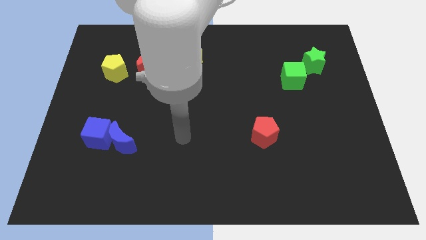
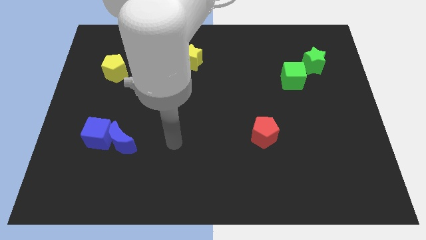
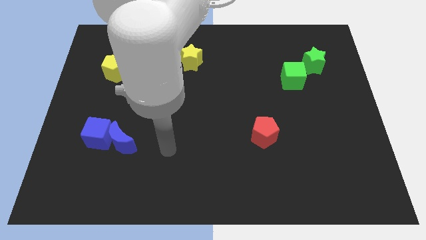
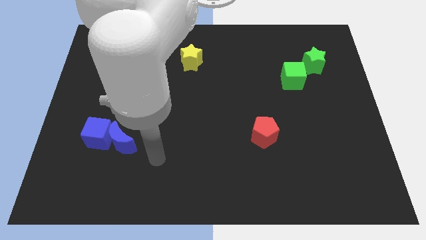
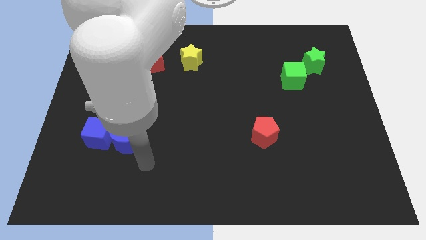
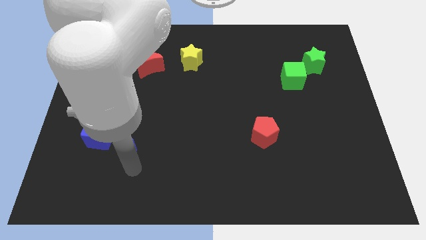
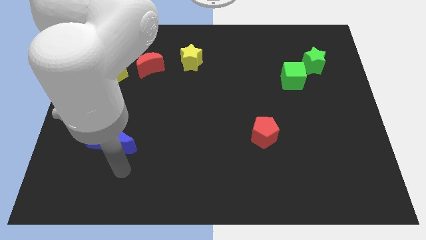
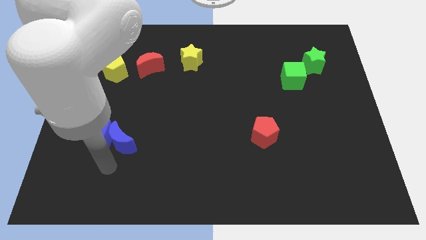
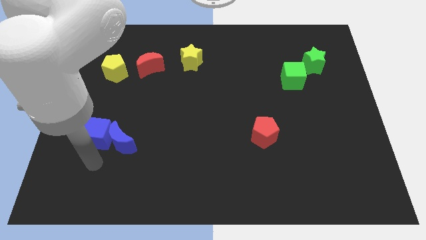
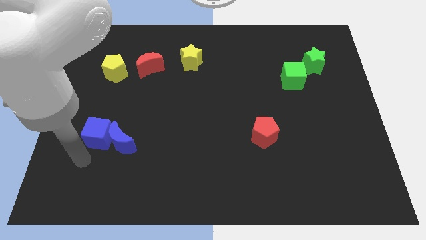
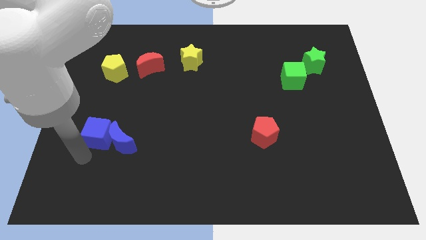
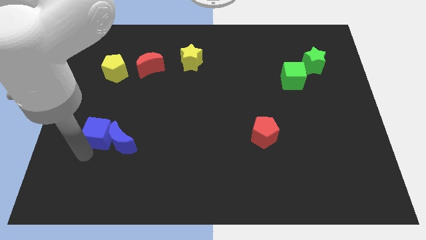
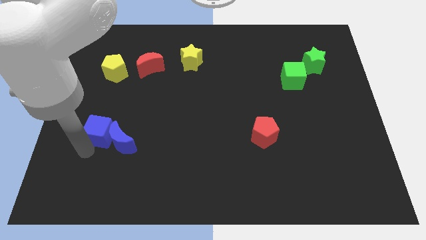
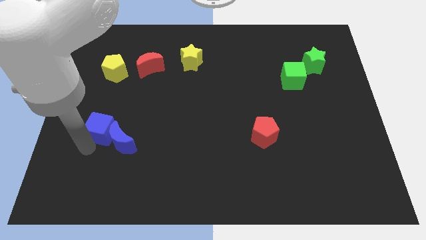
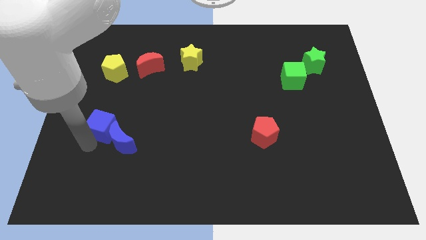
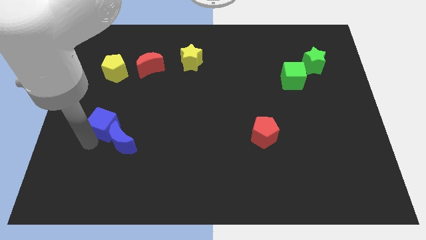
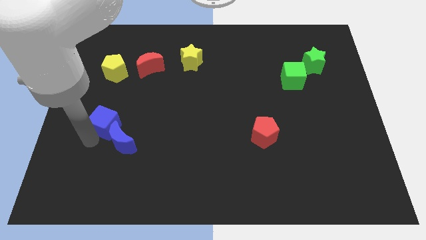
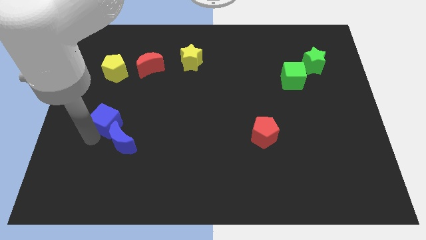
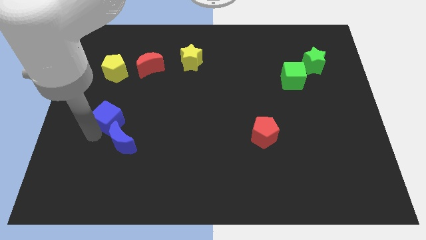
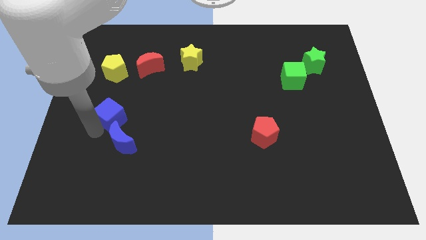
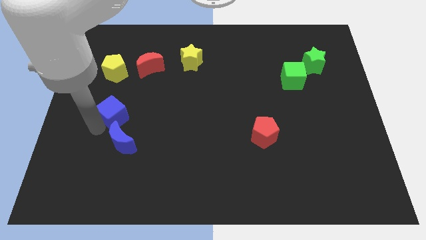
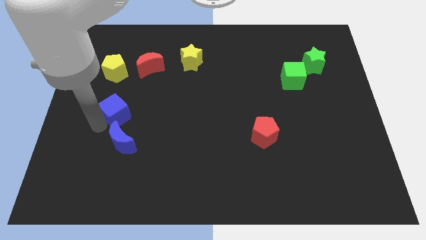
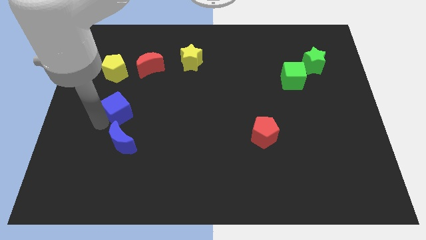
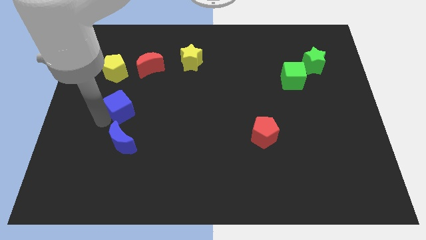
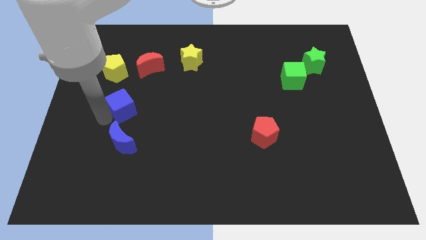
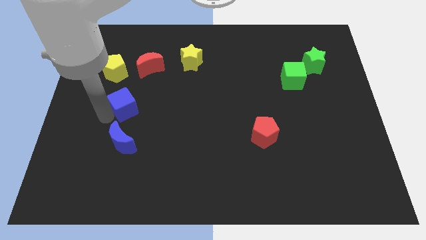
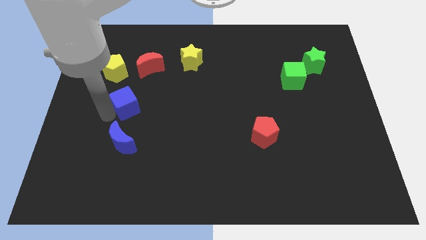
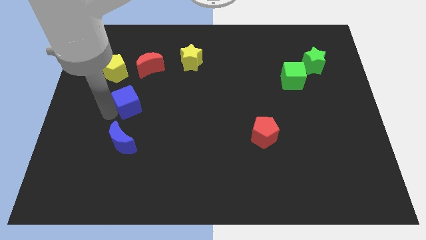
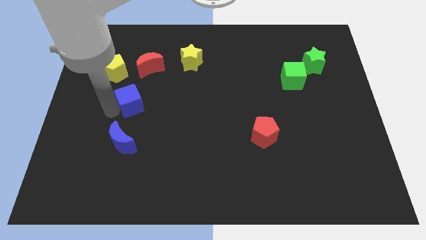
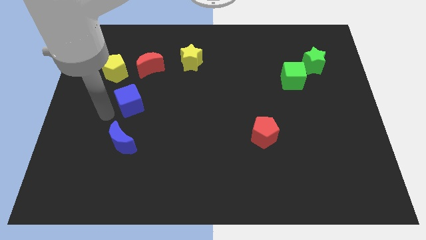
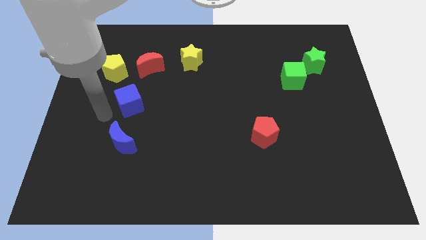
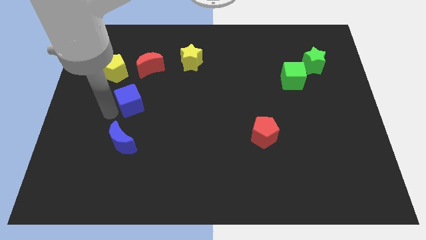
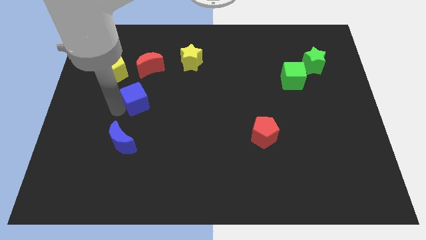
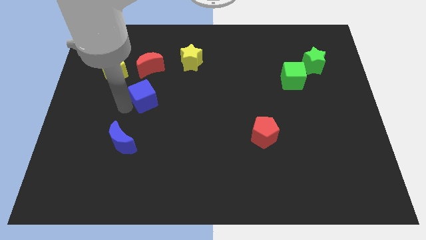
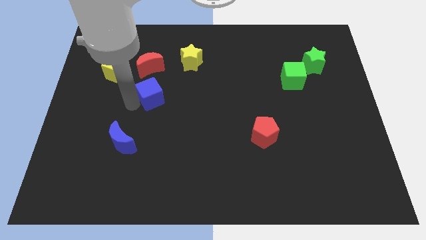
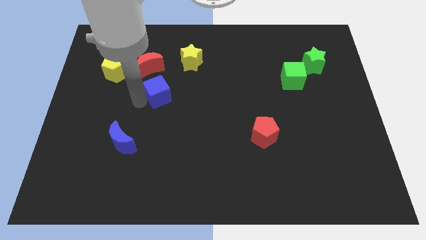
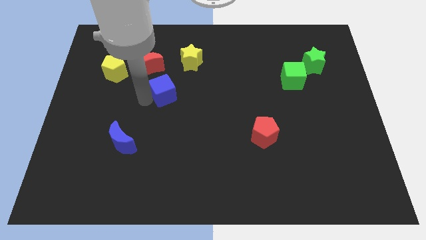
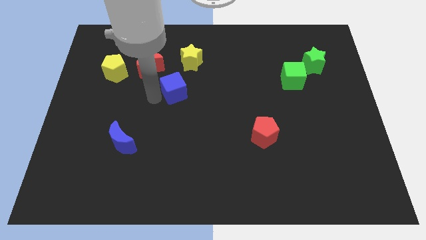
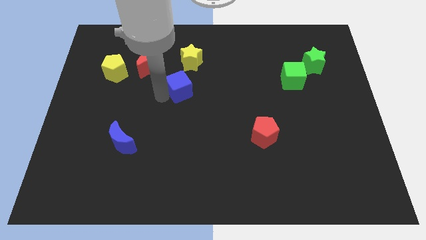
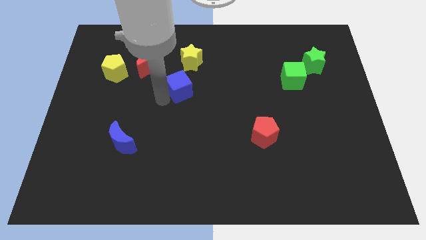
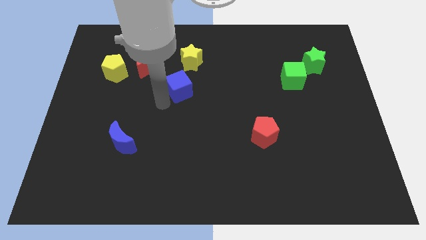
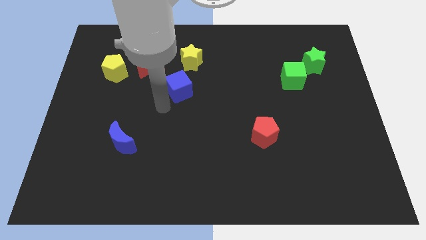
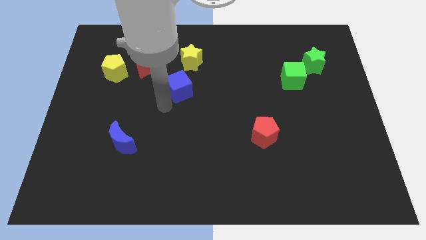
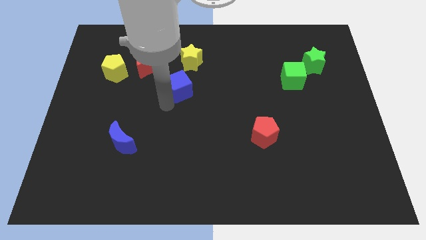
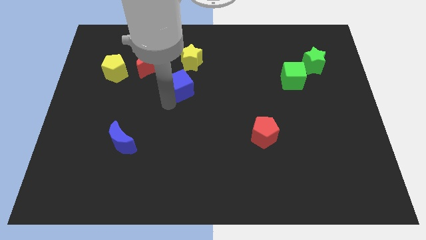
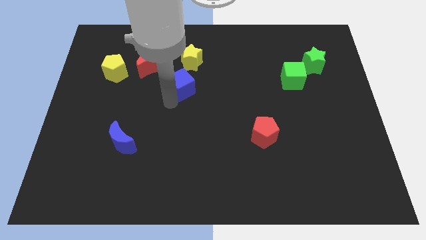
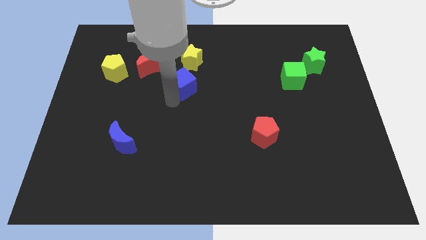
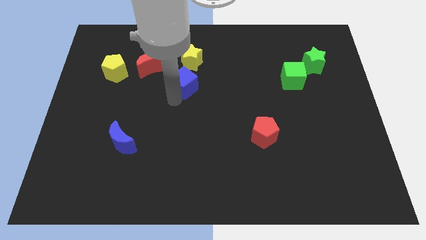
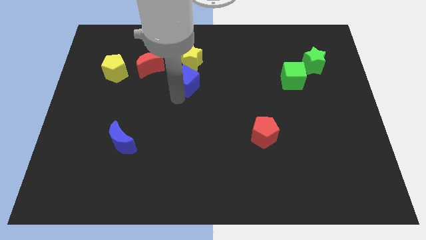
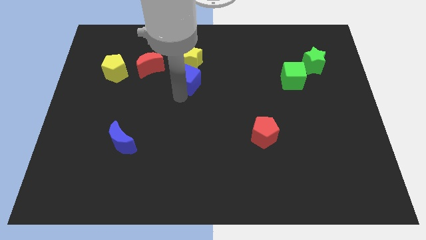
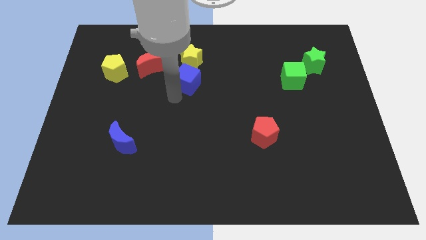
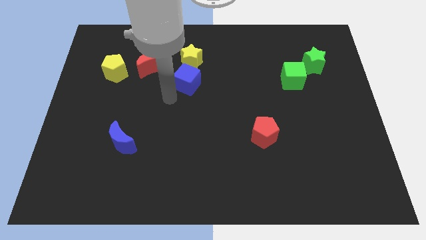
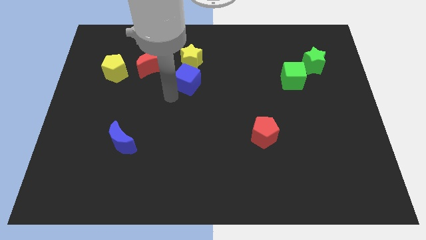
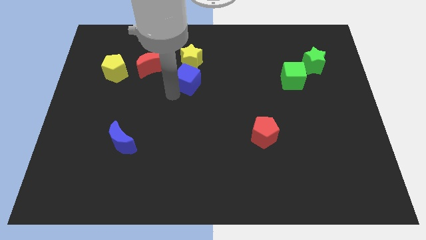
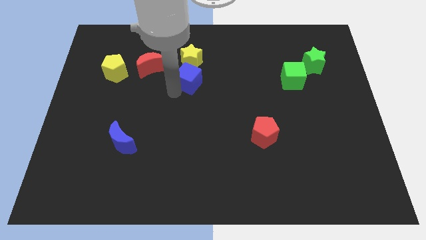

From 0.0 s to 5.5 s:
move the blue cube just right of the red moon

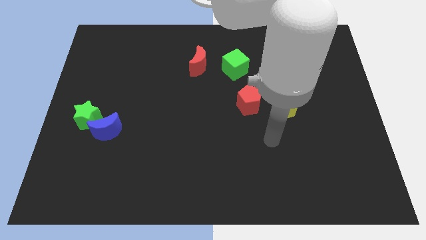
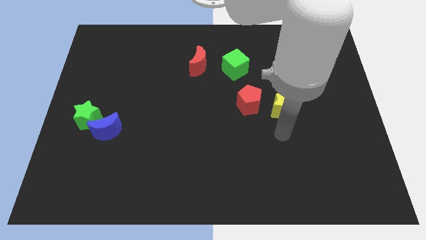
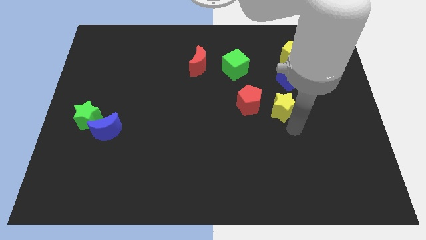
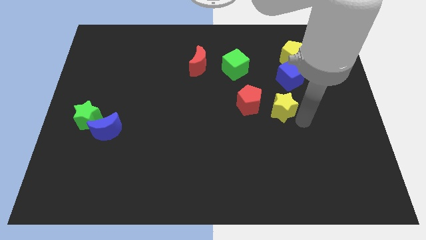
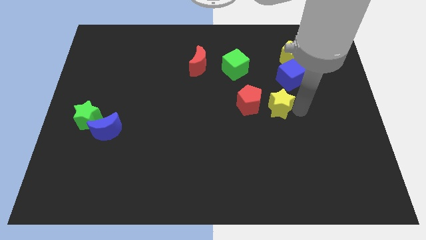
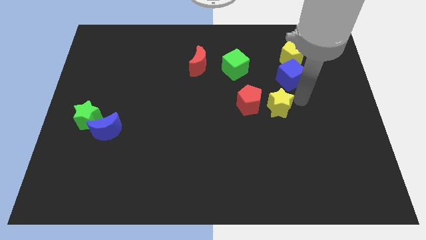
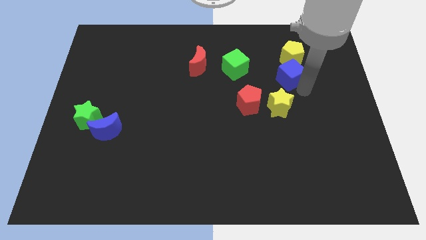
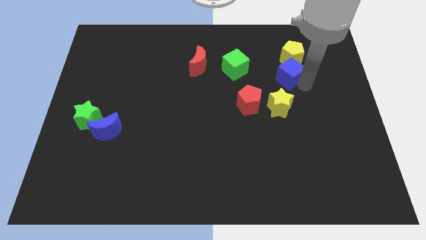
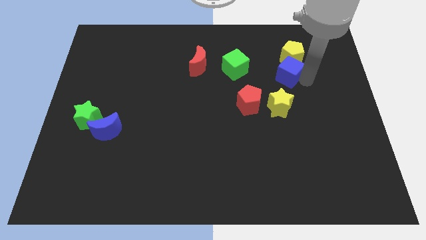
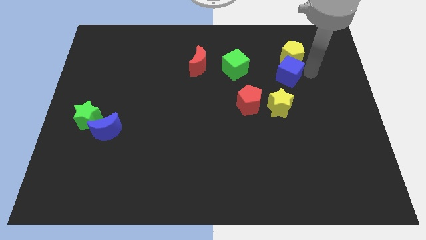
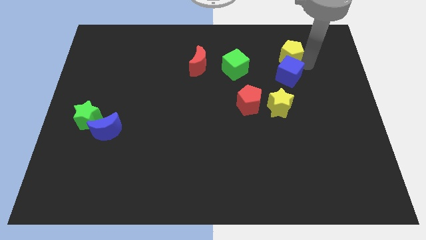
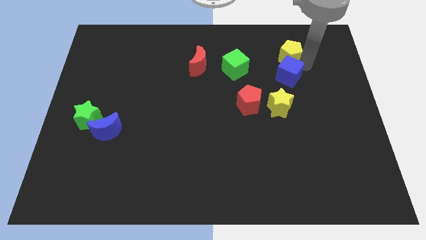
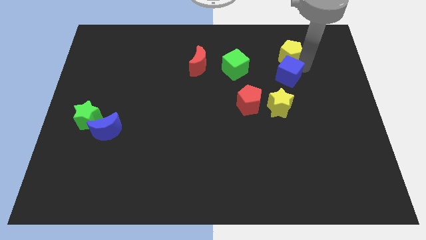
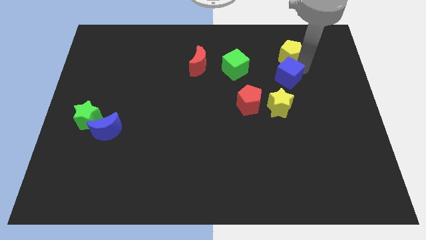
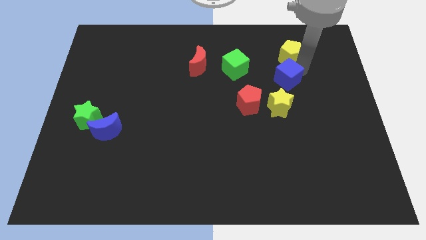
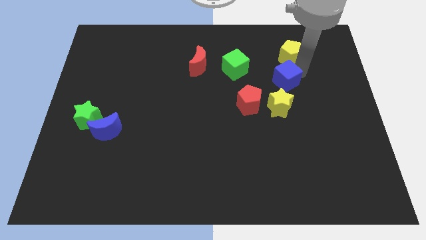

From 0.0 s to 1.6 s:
move the blue cube to the top right side of the red pentagon
